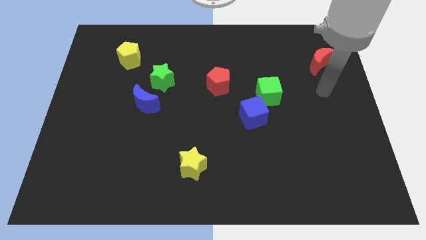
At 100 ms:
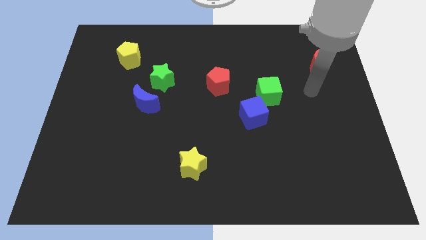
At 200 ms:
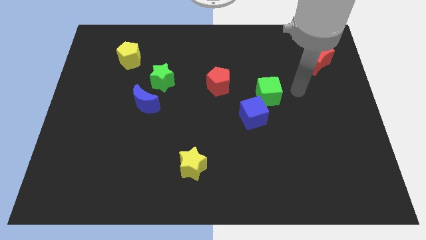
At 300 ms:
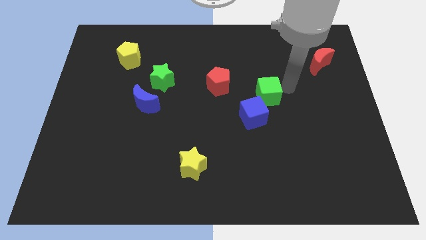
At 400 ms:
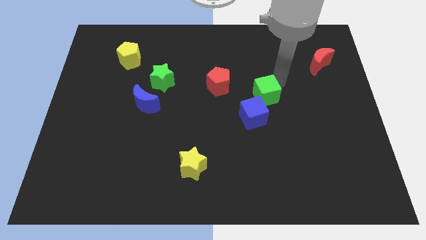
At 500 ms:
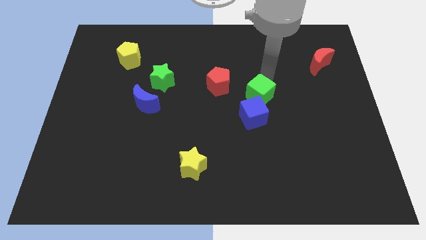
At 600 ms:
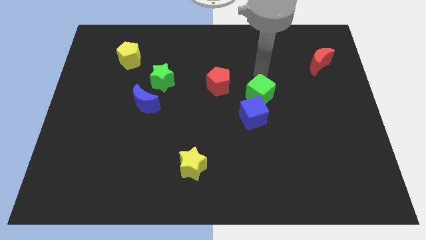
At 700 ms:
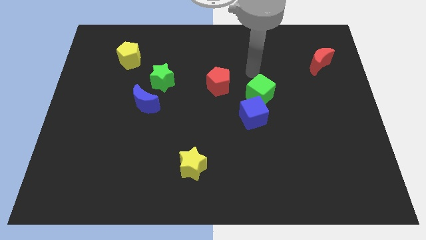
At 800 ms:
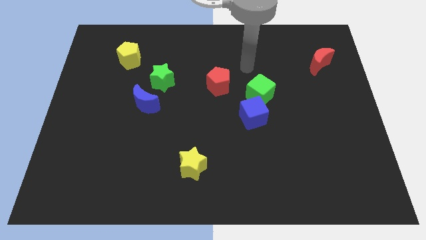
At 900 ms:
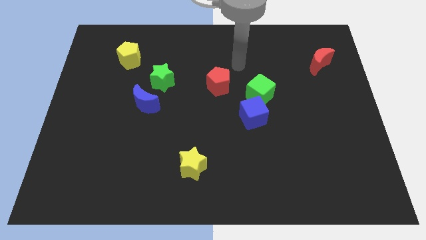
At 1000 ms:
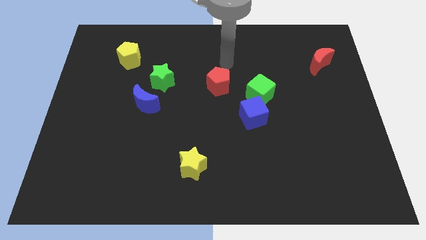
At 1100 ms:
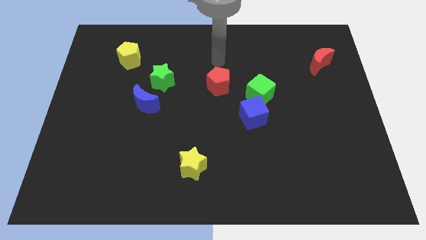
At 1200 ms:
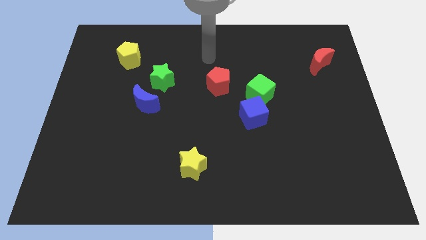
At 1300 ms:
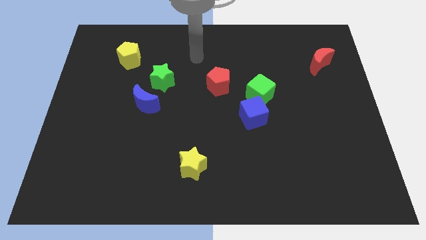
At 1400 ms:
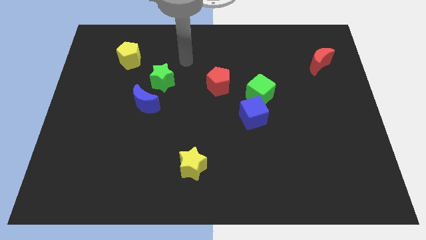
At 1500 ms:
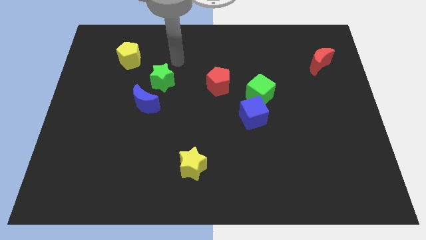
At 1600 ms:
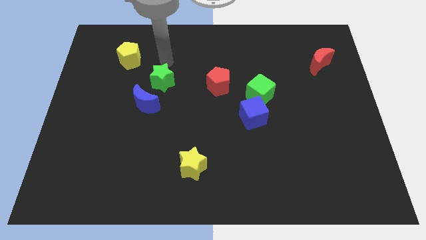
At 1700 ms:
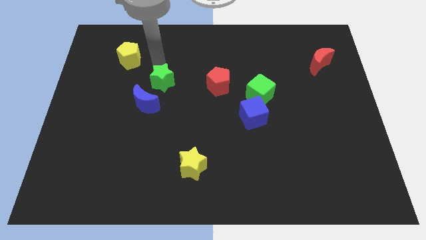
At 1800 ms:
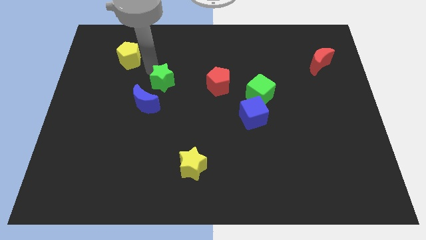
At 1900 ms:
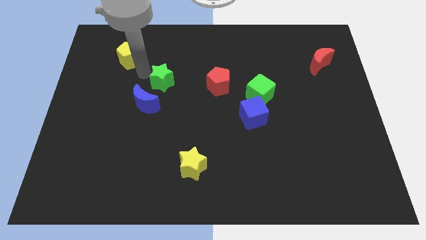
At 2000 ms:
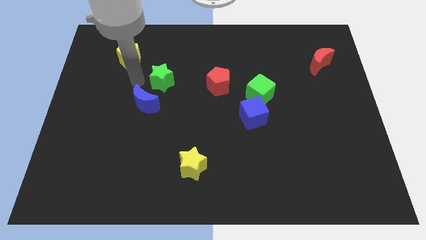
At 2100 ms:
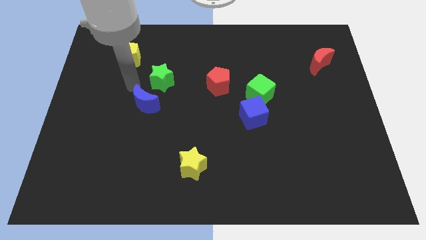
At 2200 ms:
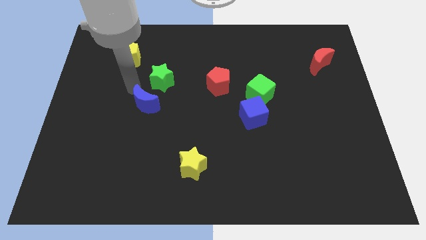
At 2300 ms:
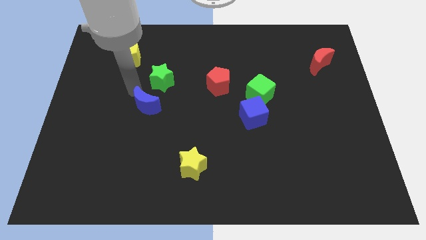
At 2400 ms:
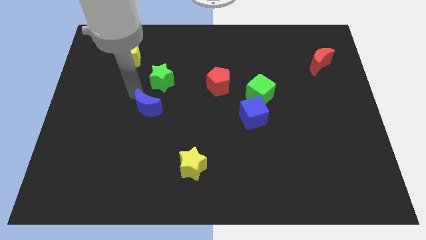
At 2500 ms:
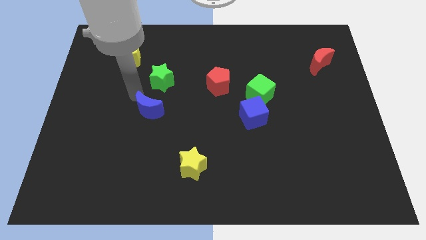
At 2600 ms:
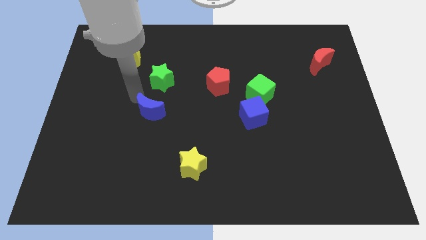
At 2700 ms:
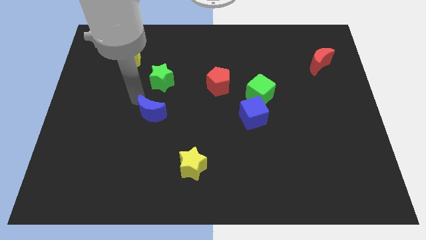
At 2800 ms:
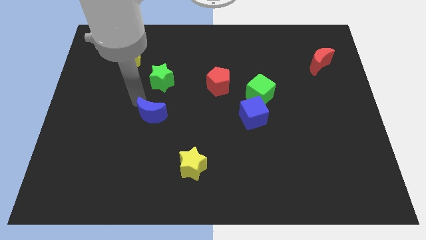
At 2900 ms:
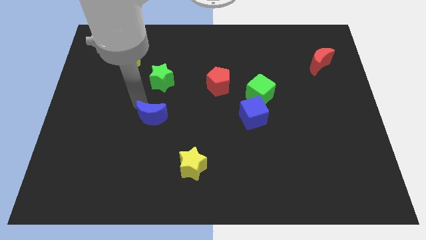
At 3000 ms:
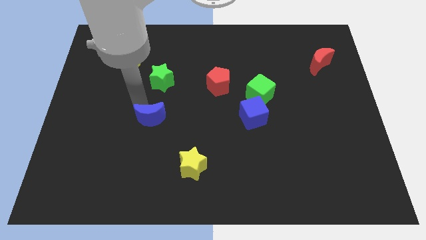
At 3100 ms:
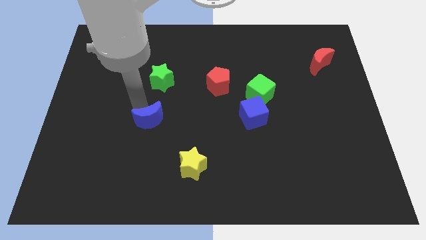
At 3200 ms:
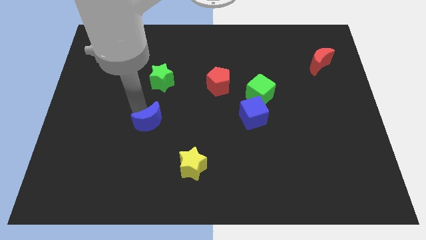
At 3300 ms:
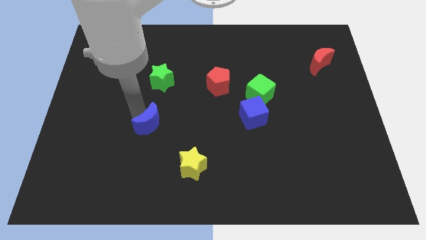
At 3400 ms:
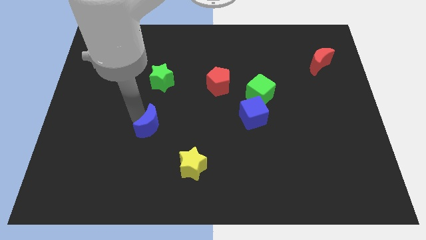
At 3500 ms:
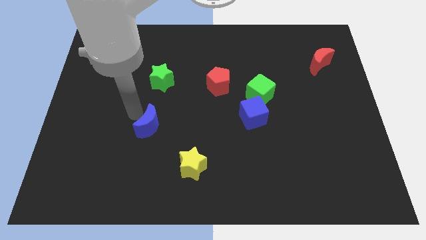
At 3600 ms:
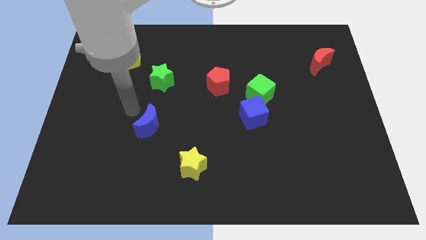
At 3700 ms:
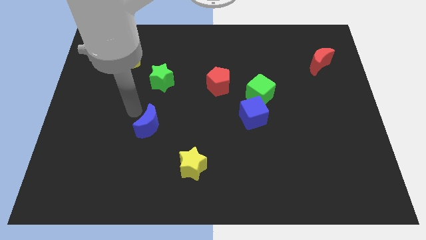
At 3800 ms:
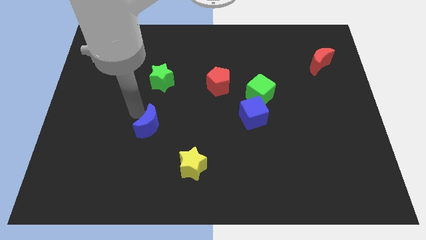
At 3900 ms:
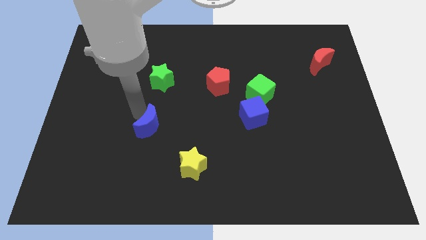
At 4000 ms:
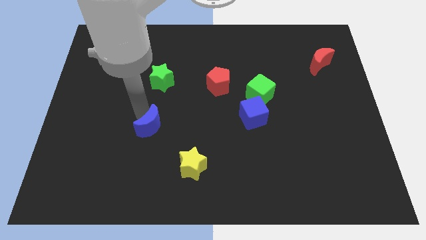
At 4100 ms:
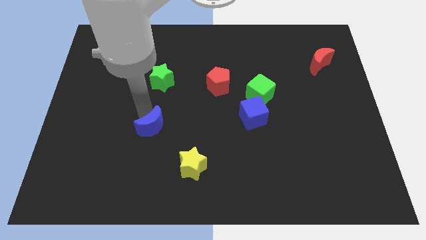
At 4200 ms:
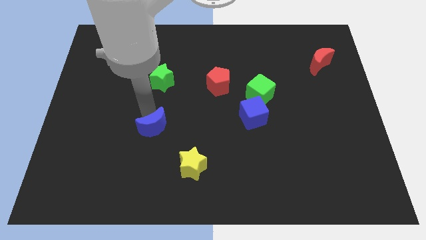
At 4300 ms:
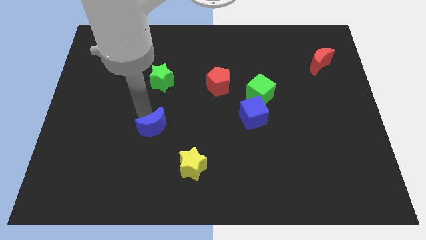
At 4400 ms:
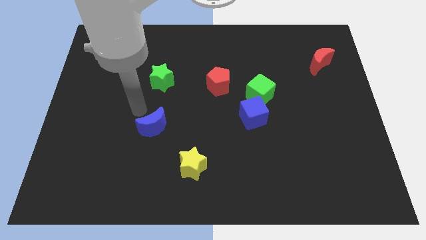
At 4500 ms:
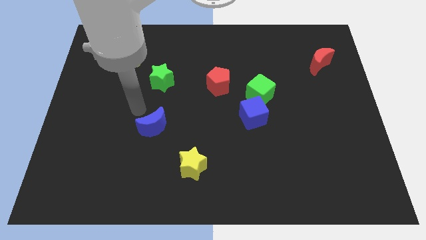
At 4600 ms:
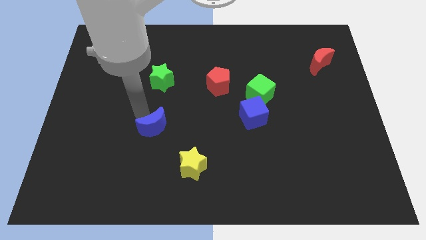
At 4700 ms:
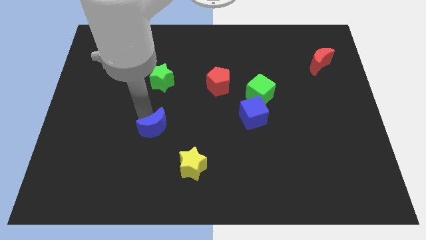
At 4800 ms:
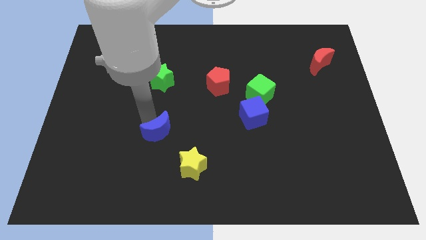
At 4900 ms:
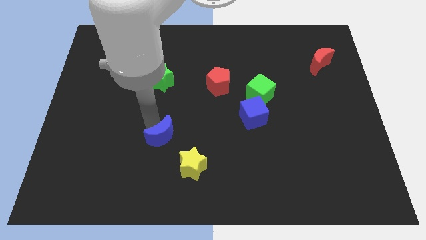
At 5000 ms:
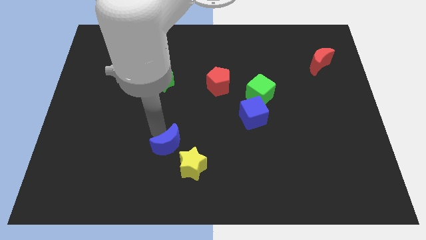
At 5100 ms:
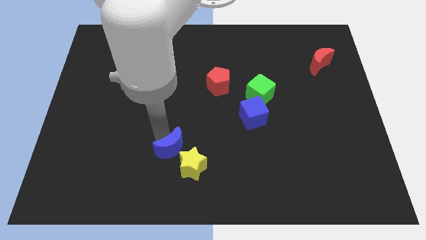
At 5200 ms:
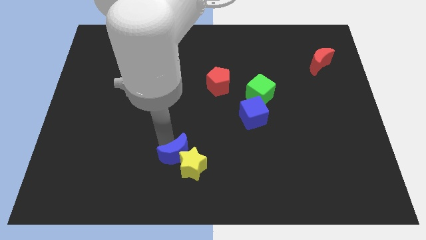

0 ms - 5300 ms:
put the blue moon towards the yellow star

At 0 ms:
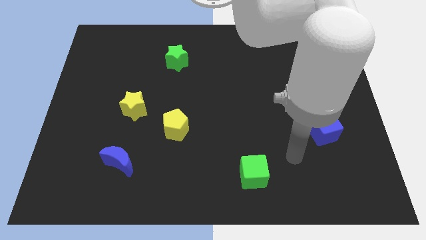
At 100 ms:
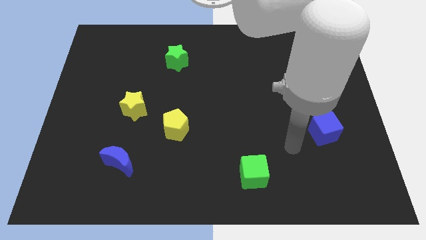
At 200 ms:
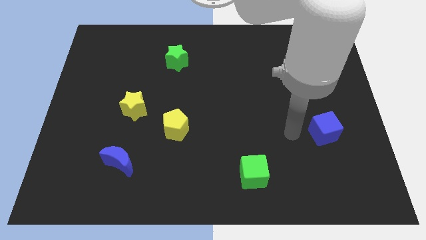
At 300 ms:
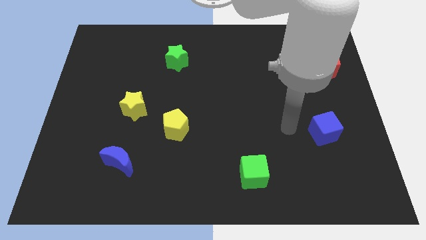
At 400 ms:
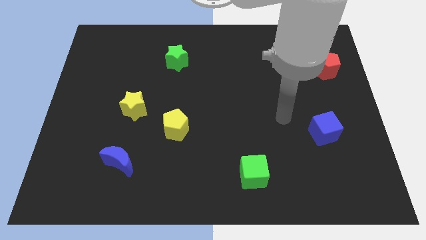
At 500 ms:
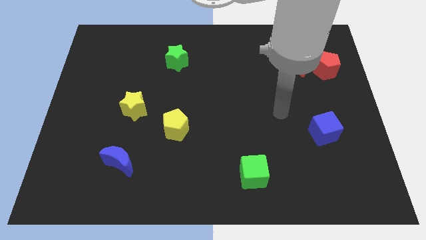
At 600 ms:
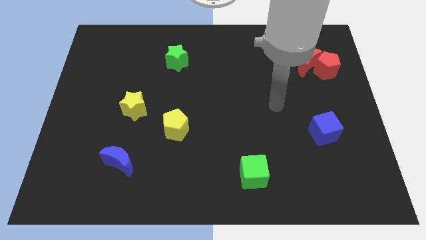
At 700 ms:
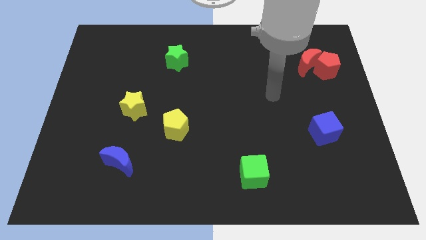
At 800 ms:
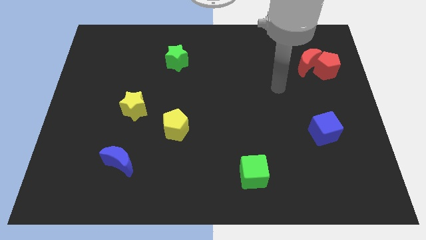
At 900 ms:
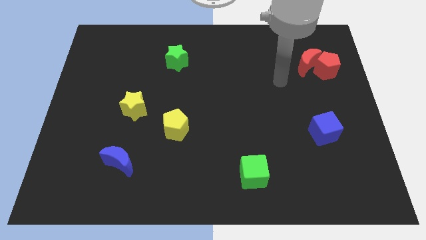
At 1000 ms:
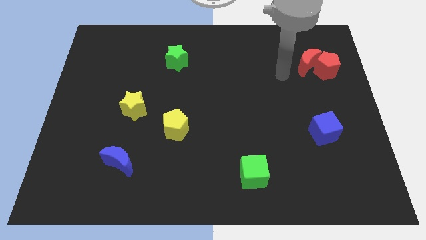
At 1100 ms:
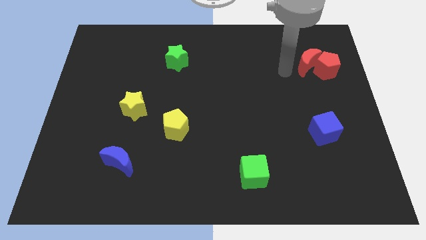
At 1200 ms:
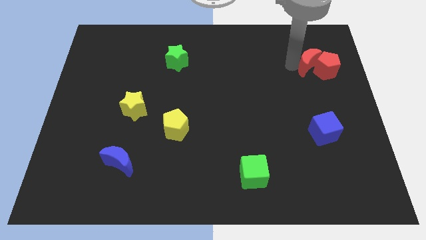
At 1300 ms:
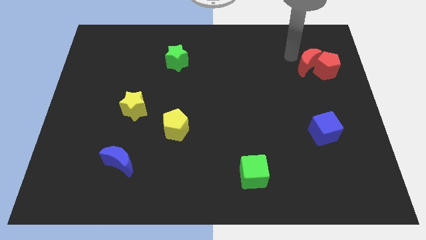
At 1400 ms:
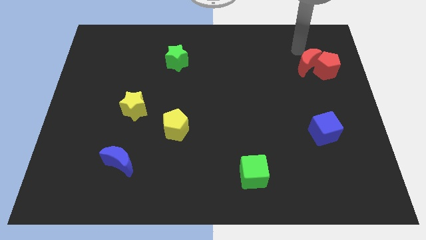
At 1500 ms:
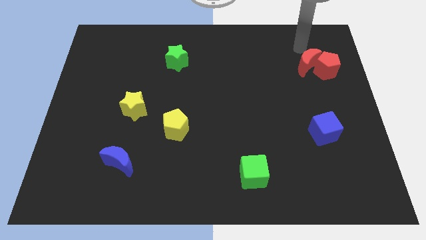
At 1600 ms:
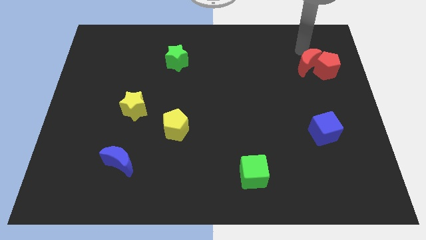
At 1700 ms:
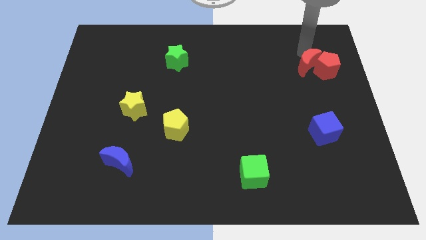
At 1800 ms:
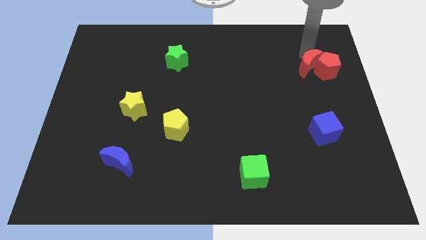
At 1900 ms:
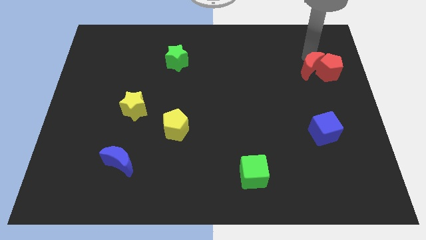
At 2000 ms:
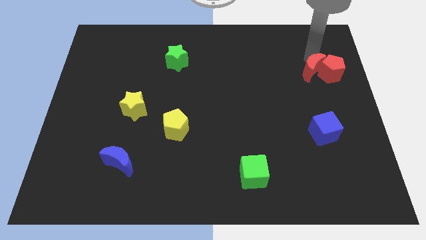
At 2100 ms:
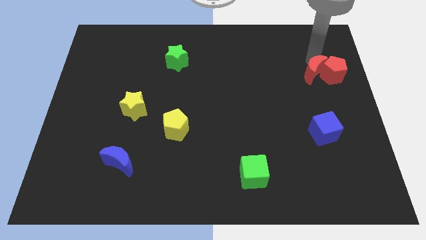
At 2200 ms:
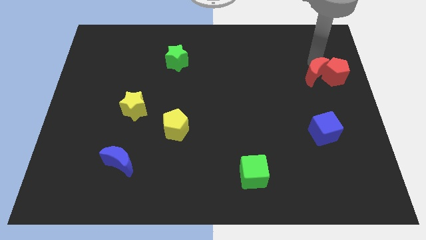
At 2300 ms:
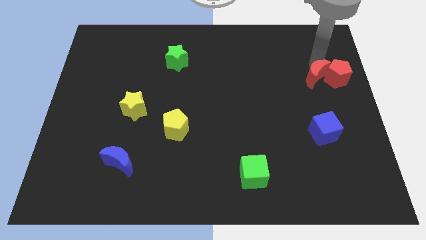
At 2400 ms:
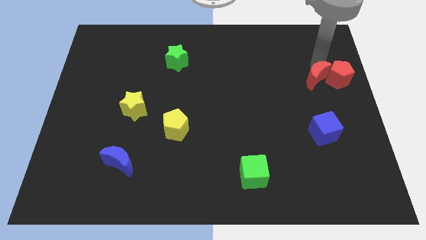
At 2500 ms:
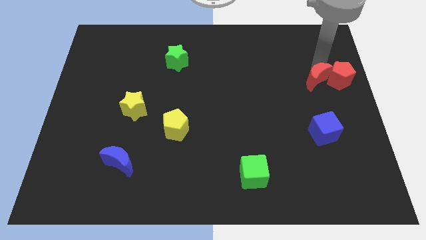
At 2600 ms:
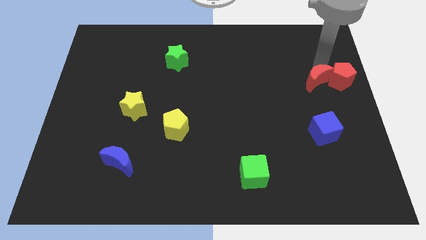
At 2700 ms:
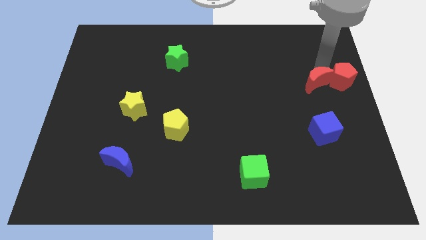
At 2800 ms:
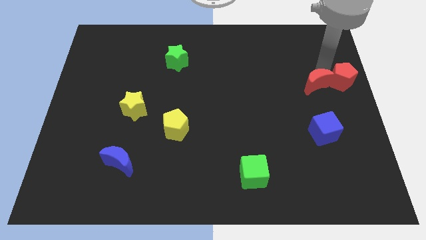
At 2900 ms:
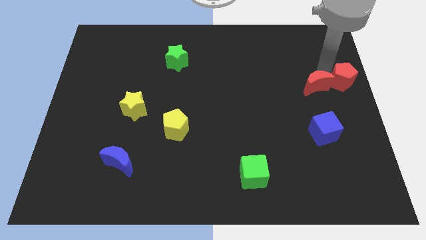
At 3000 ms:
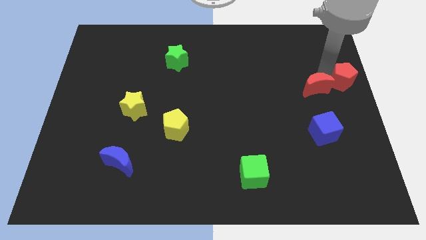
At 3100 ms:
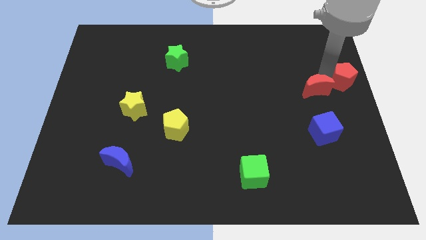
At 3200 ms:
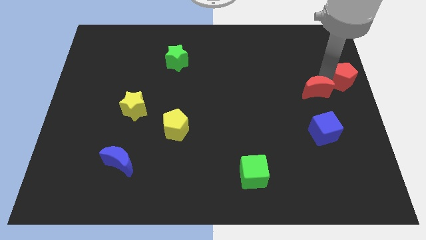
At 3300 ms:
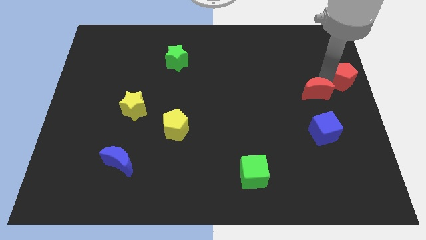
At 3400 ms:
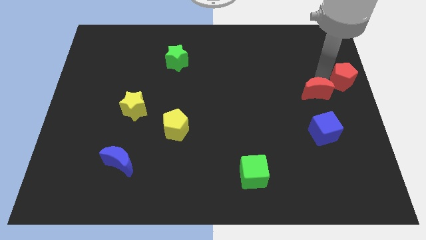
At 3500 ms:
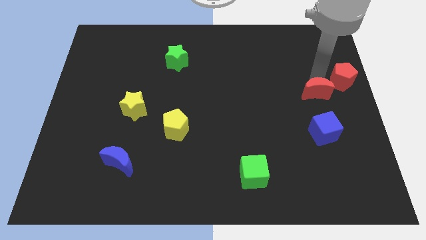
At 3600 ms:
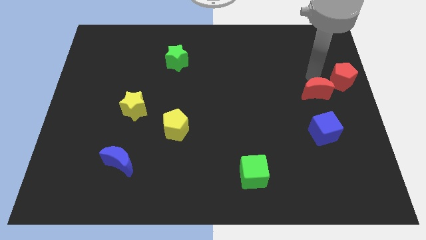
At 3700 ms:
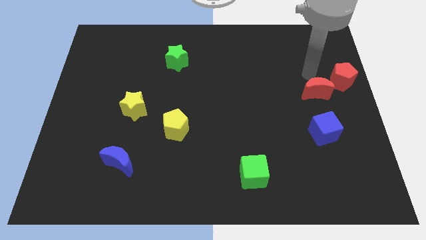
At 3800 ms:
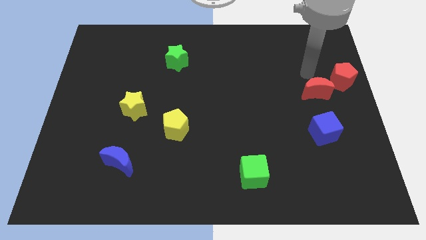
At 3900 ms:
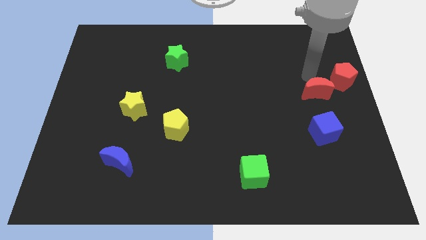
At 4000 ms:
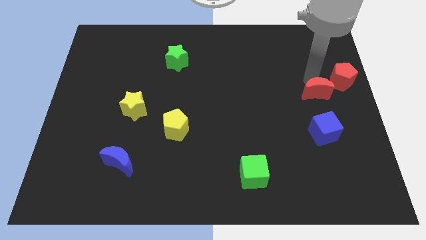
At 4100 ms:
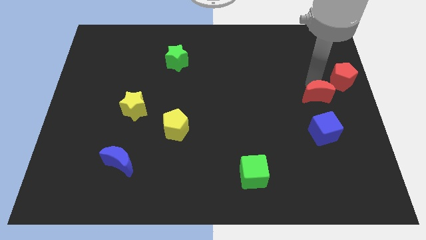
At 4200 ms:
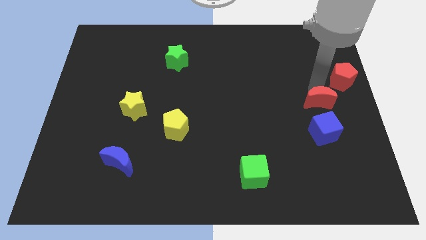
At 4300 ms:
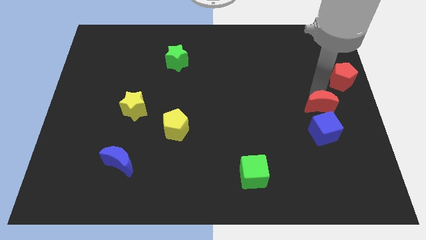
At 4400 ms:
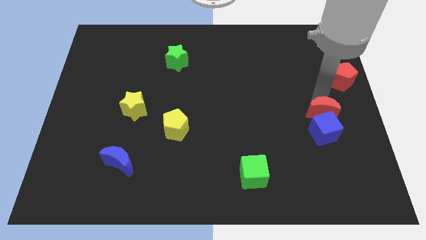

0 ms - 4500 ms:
push the red moon towards the blue cube
